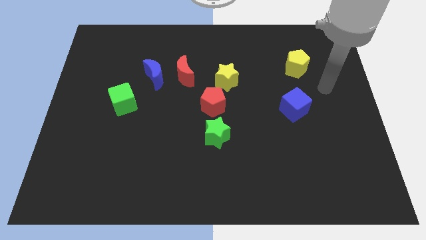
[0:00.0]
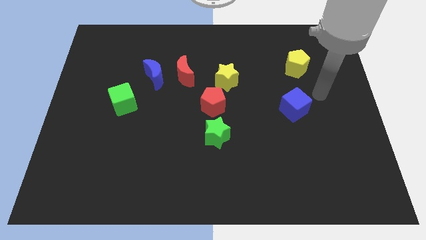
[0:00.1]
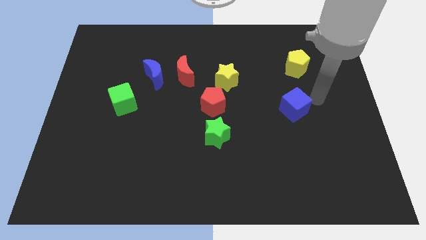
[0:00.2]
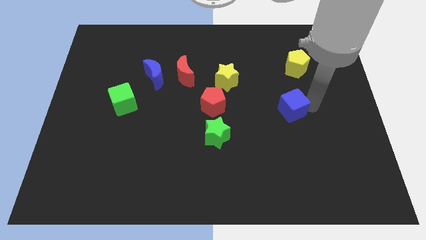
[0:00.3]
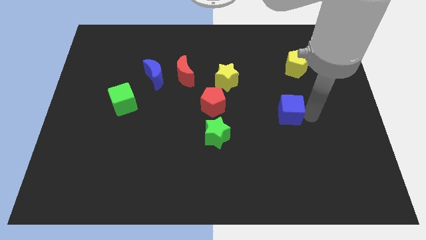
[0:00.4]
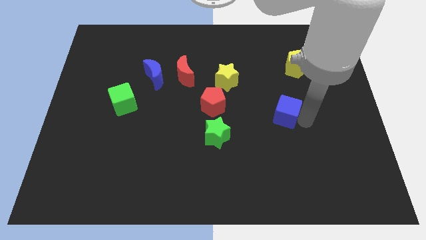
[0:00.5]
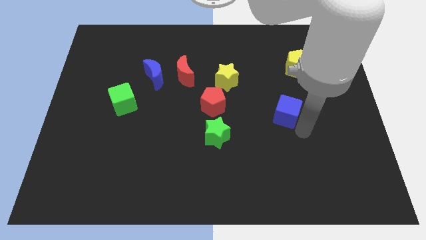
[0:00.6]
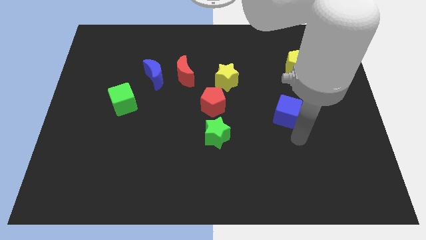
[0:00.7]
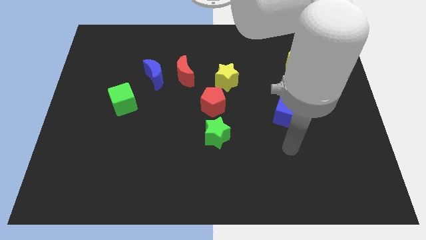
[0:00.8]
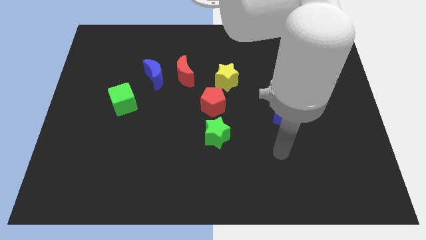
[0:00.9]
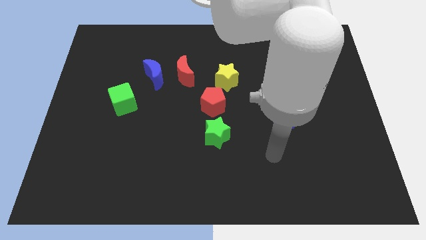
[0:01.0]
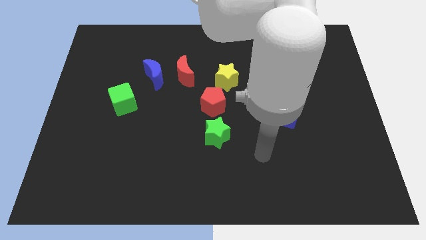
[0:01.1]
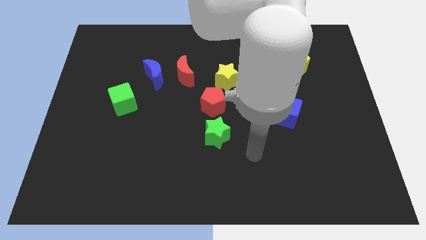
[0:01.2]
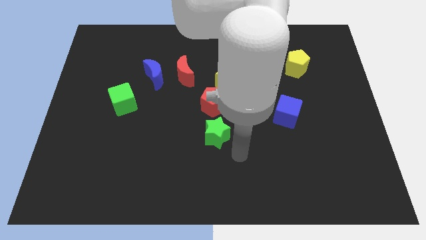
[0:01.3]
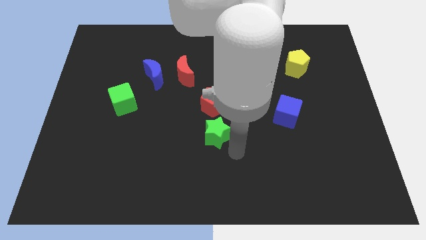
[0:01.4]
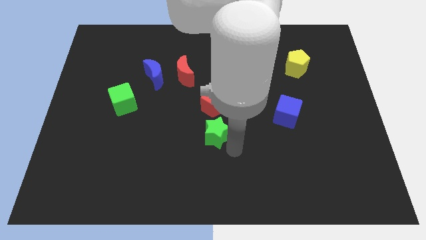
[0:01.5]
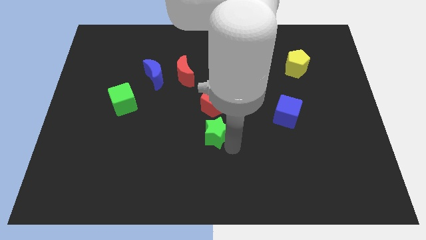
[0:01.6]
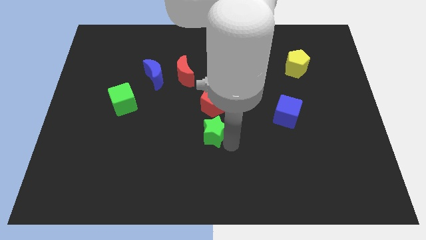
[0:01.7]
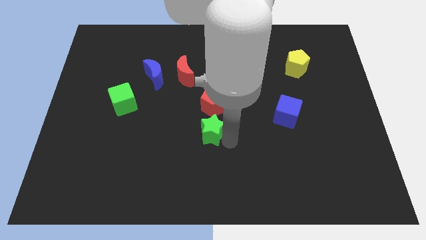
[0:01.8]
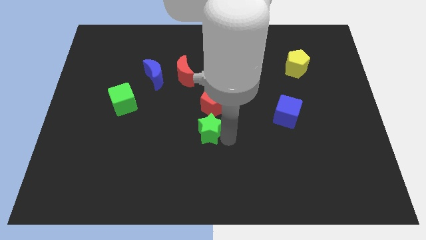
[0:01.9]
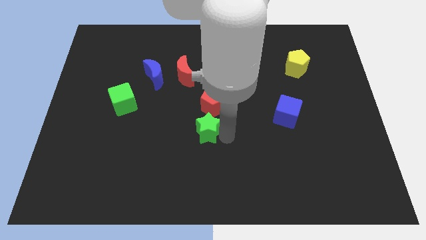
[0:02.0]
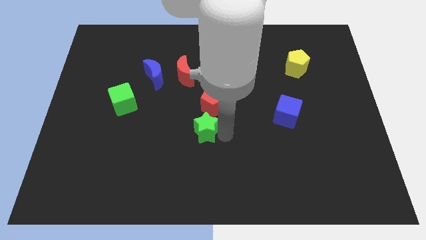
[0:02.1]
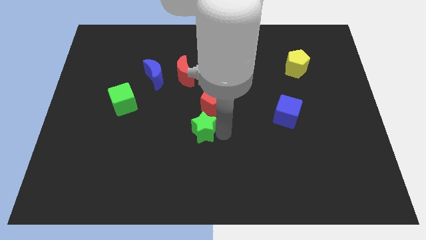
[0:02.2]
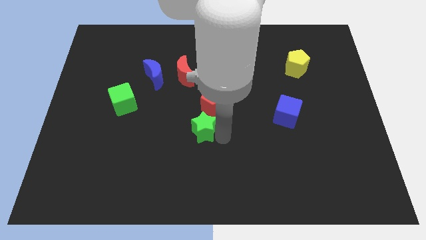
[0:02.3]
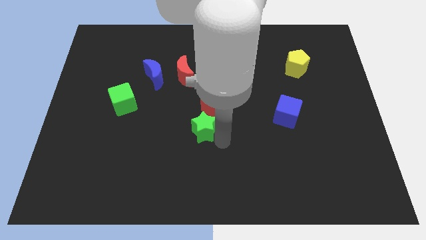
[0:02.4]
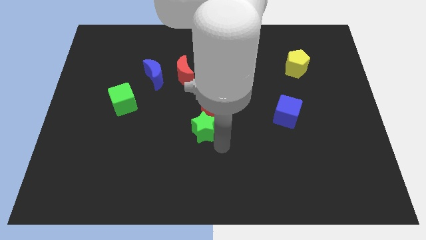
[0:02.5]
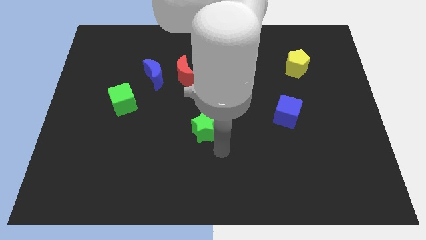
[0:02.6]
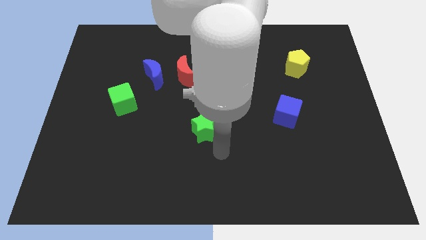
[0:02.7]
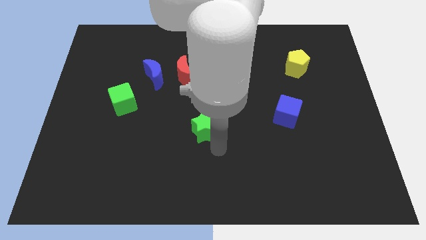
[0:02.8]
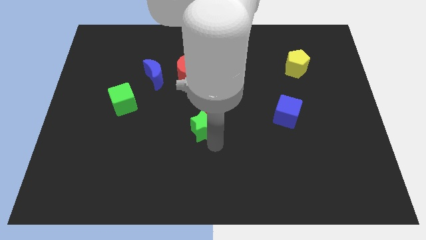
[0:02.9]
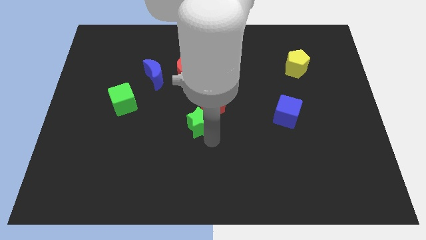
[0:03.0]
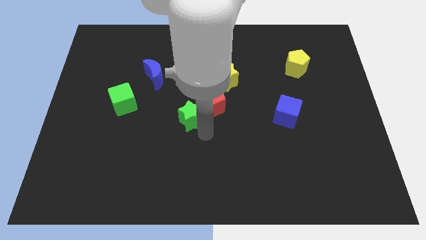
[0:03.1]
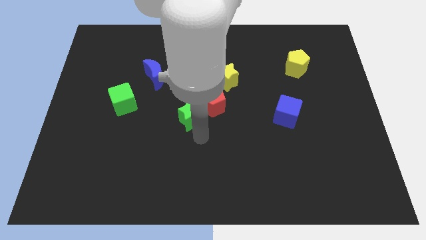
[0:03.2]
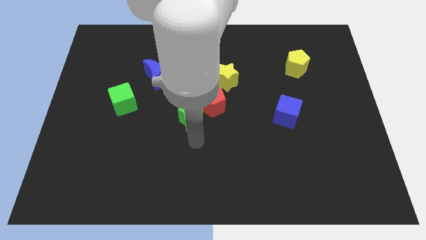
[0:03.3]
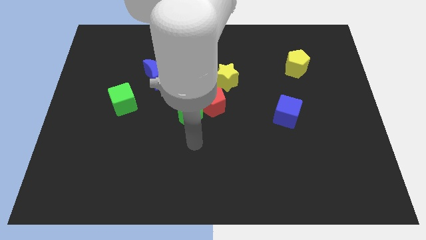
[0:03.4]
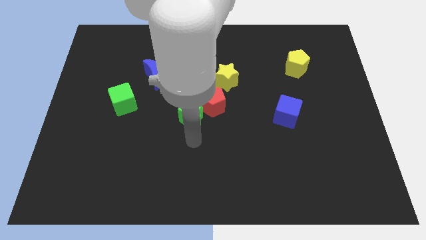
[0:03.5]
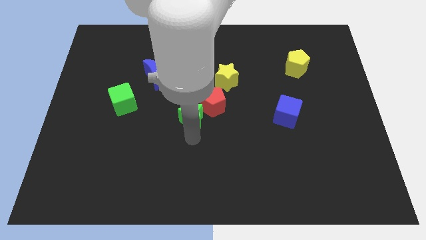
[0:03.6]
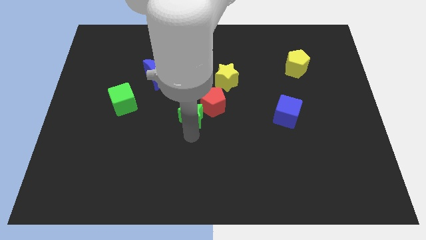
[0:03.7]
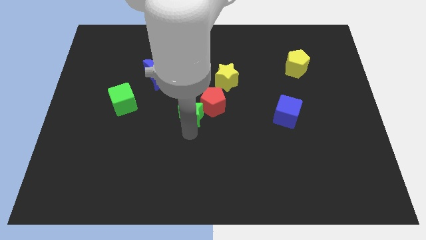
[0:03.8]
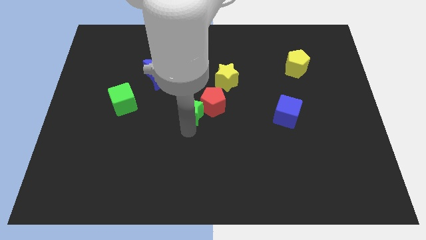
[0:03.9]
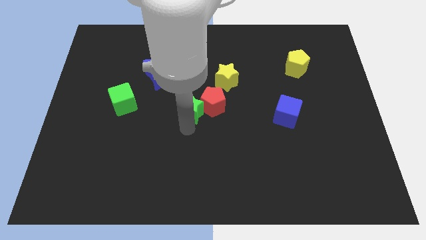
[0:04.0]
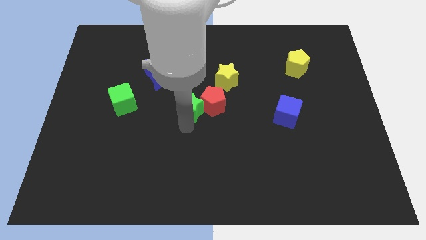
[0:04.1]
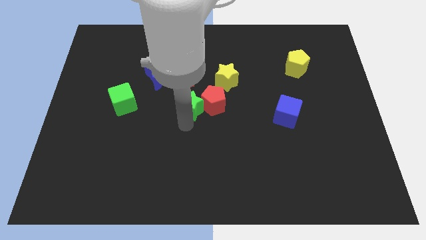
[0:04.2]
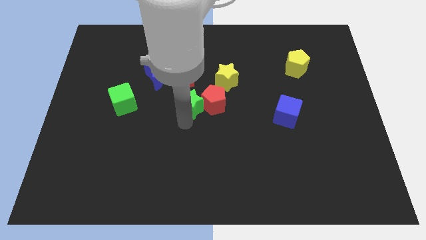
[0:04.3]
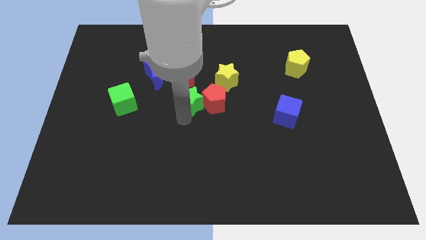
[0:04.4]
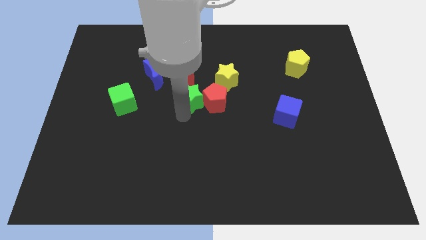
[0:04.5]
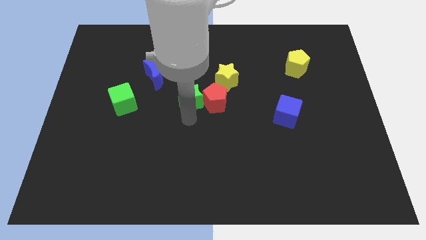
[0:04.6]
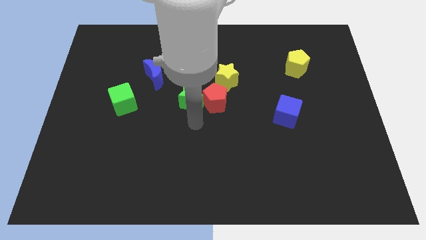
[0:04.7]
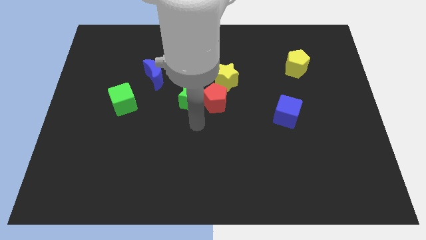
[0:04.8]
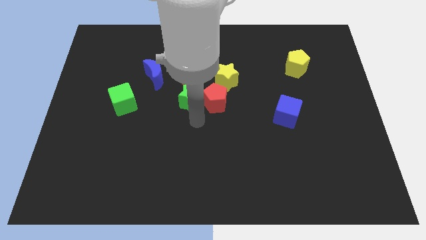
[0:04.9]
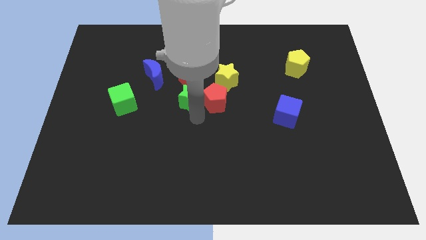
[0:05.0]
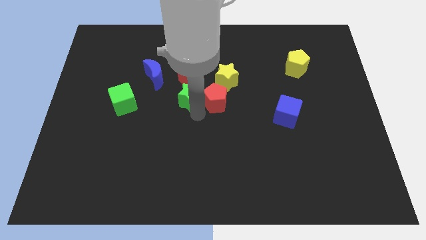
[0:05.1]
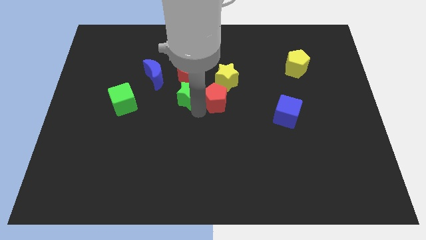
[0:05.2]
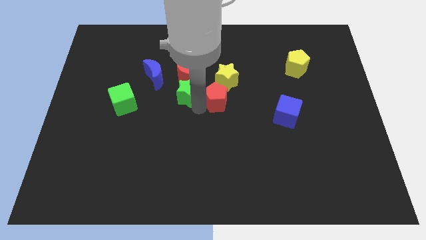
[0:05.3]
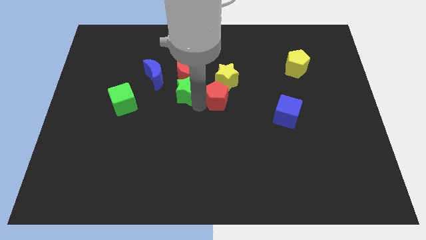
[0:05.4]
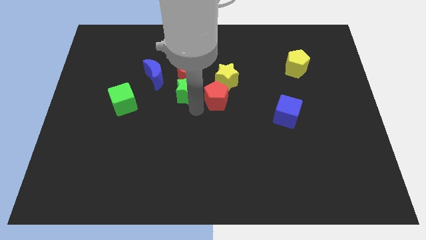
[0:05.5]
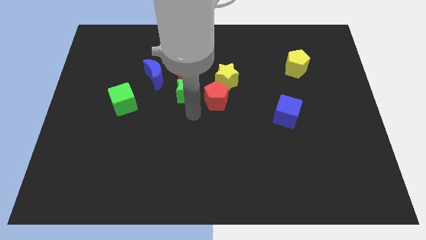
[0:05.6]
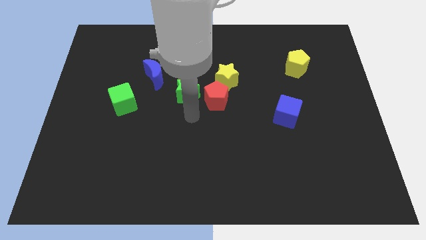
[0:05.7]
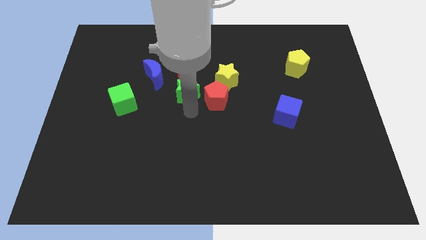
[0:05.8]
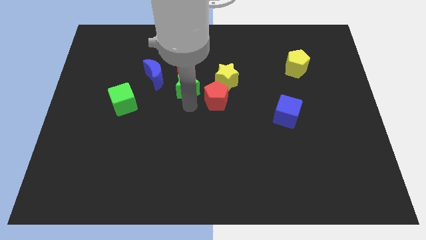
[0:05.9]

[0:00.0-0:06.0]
put the green star to the red moon

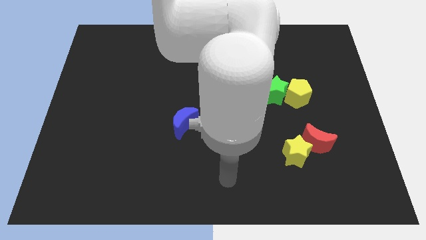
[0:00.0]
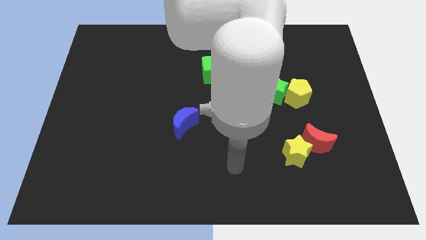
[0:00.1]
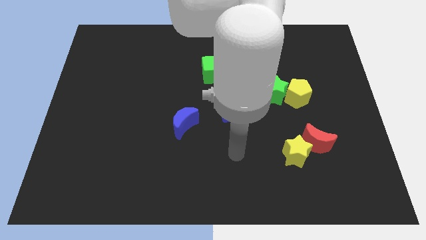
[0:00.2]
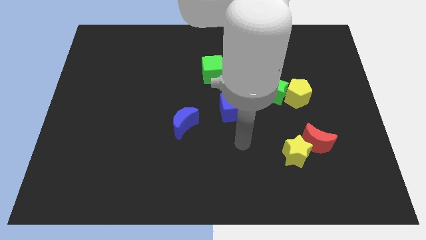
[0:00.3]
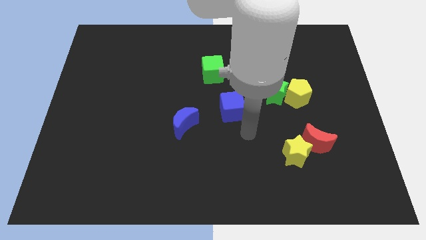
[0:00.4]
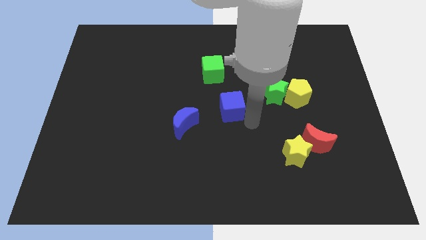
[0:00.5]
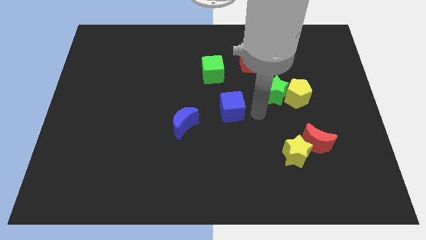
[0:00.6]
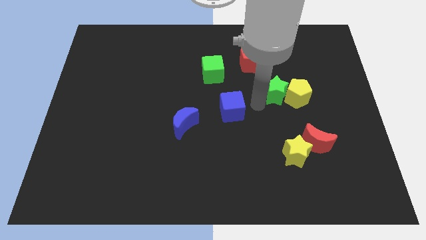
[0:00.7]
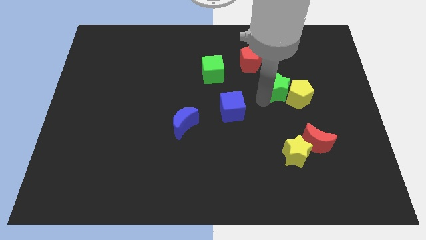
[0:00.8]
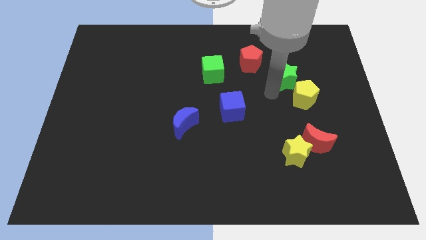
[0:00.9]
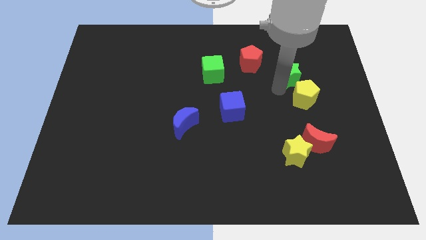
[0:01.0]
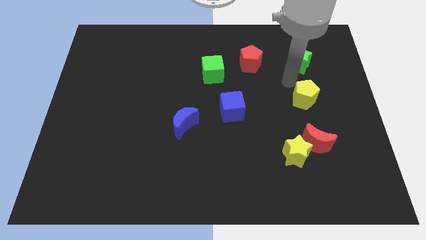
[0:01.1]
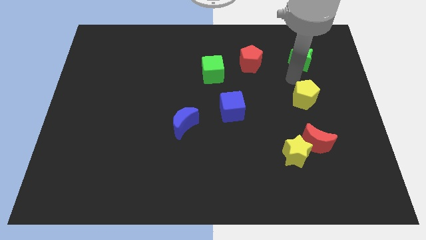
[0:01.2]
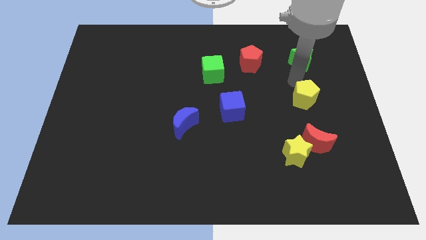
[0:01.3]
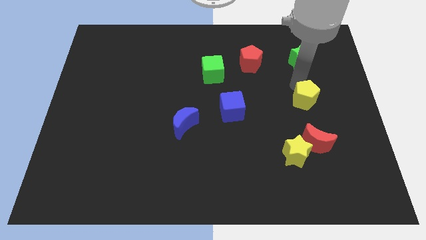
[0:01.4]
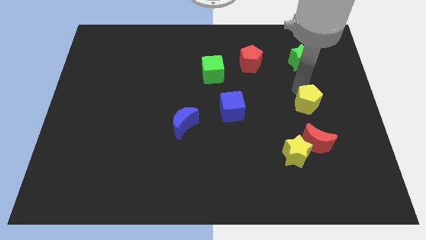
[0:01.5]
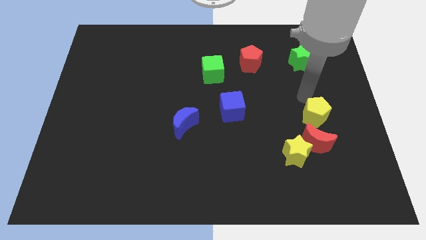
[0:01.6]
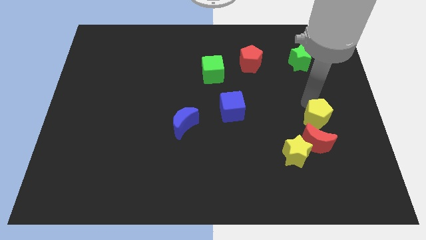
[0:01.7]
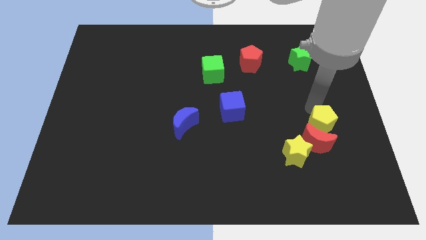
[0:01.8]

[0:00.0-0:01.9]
slide the yellow pentagon towards the red moon
